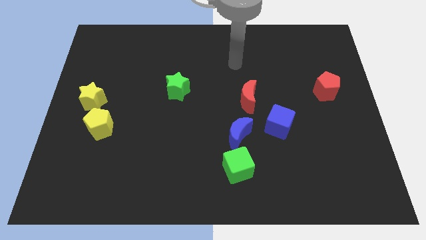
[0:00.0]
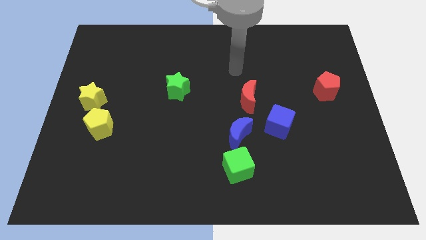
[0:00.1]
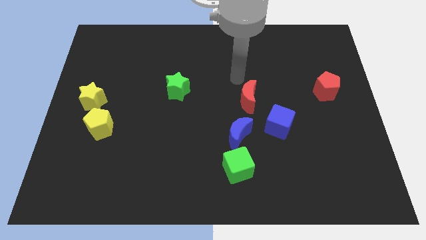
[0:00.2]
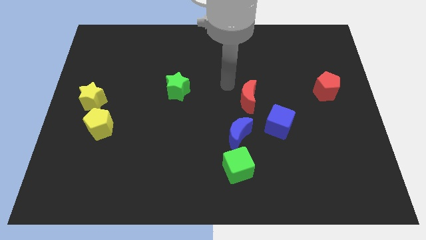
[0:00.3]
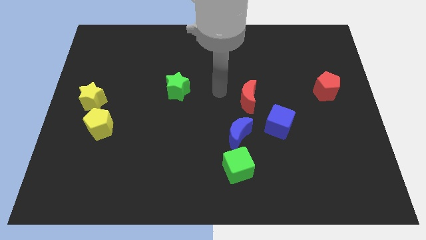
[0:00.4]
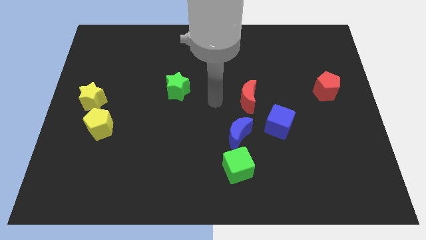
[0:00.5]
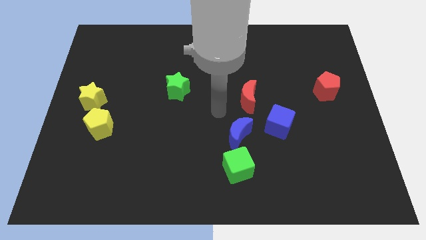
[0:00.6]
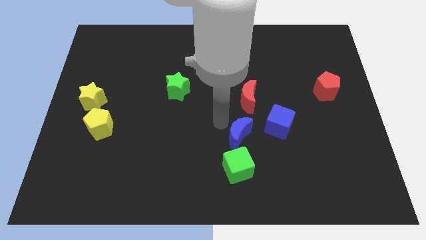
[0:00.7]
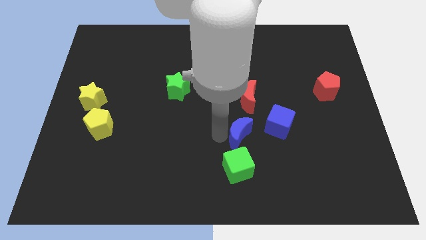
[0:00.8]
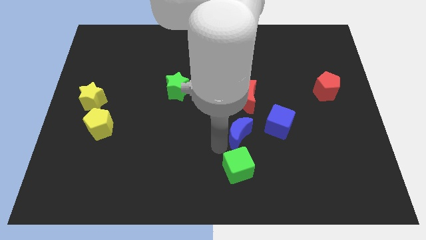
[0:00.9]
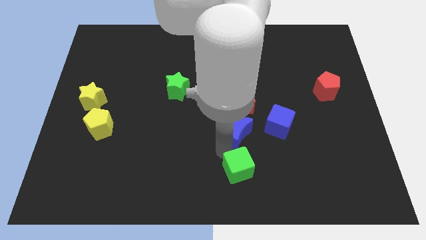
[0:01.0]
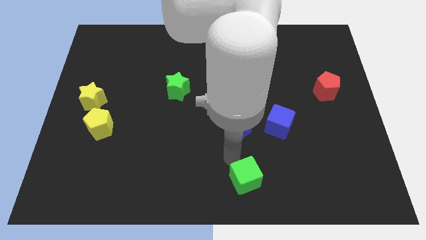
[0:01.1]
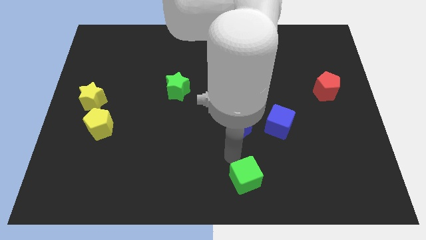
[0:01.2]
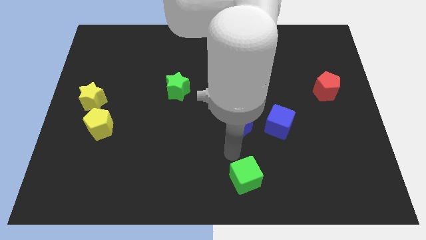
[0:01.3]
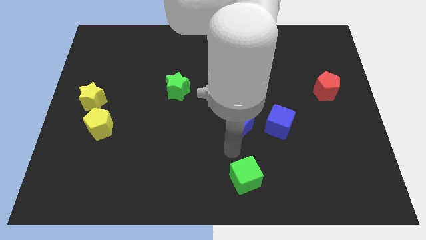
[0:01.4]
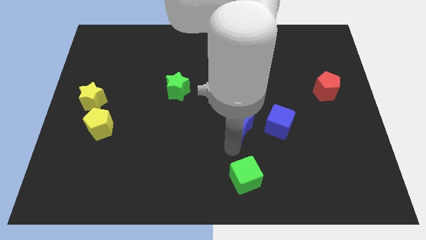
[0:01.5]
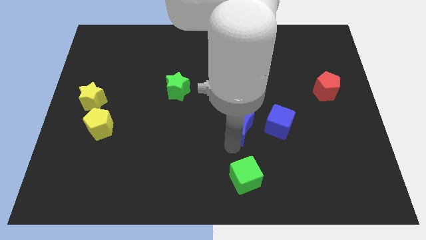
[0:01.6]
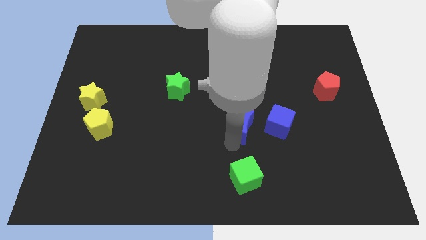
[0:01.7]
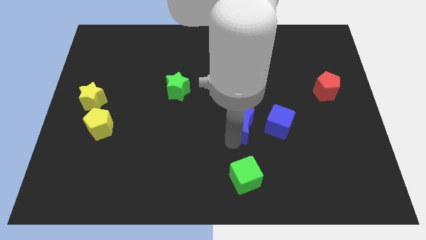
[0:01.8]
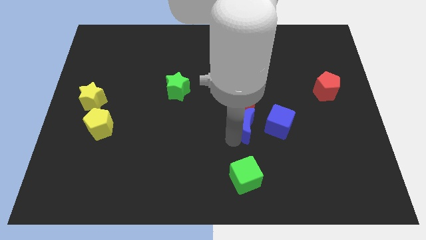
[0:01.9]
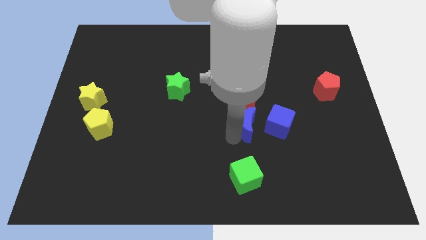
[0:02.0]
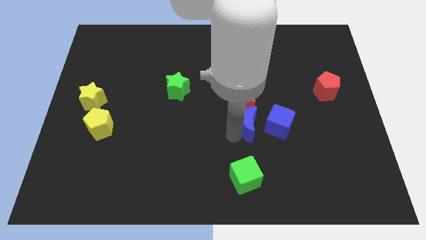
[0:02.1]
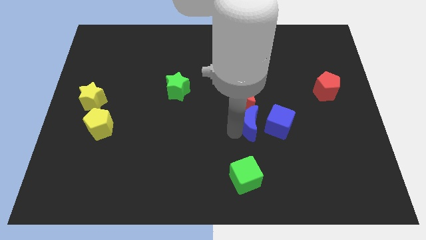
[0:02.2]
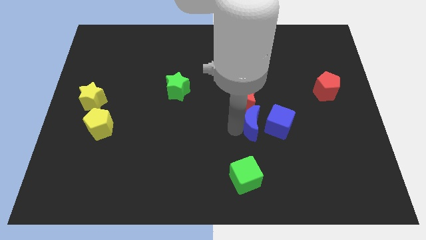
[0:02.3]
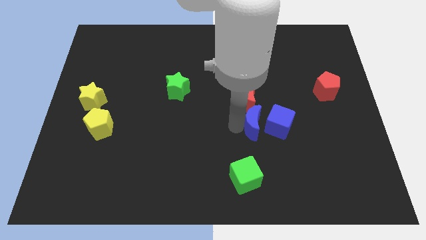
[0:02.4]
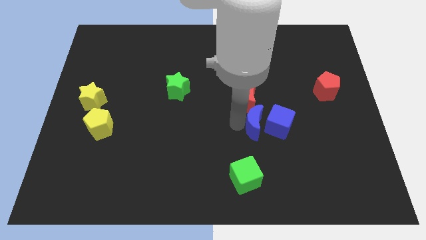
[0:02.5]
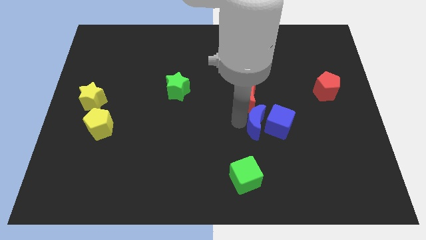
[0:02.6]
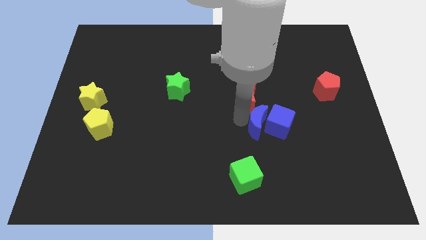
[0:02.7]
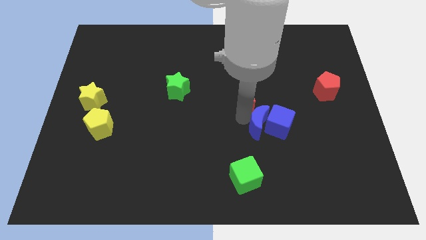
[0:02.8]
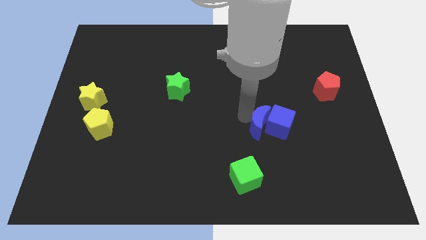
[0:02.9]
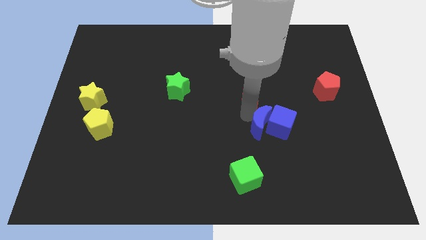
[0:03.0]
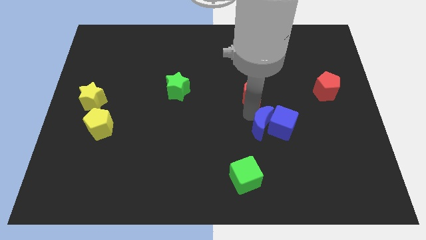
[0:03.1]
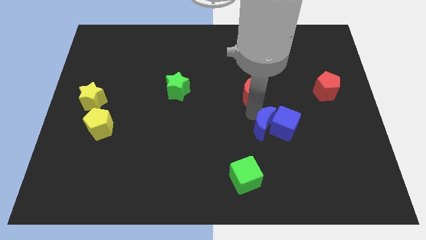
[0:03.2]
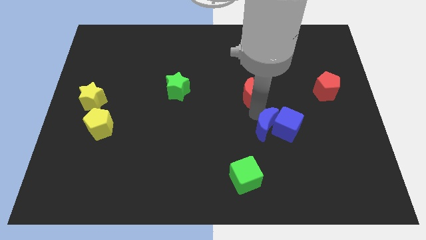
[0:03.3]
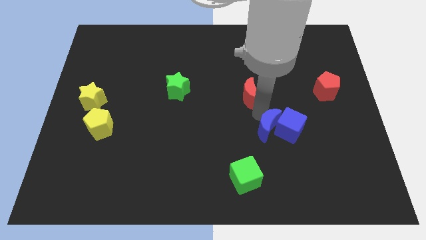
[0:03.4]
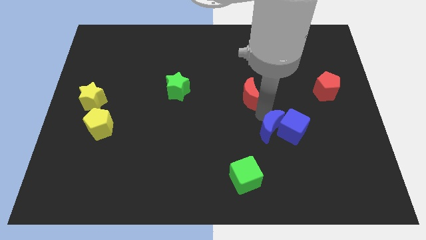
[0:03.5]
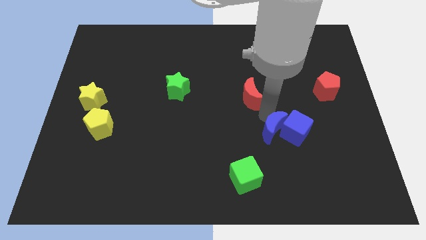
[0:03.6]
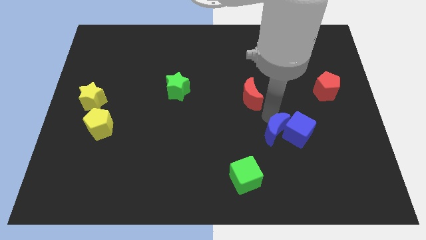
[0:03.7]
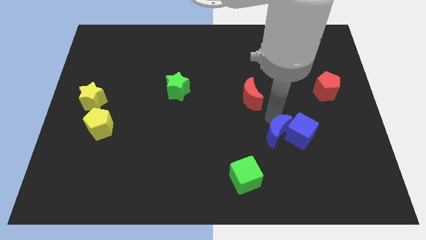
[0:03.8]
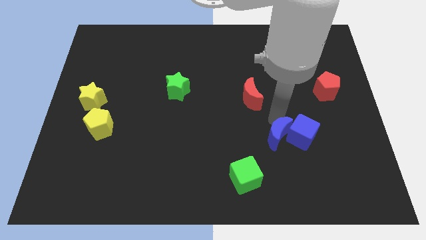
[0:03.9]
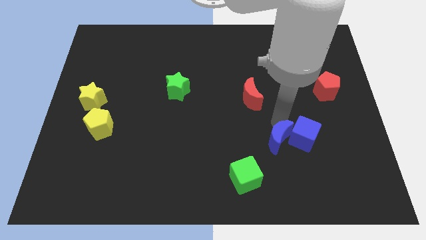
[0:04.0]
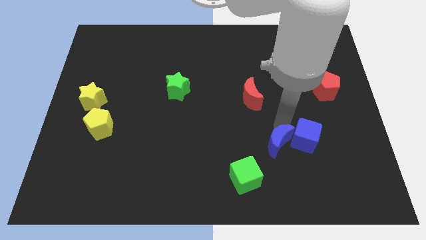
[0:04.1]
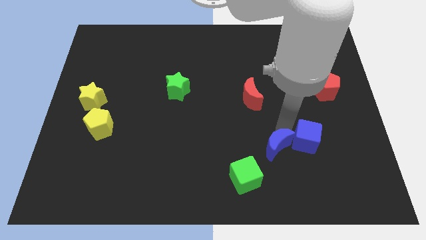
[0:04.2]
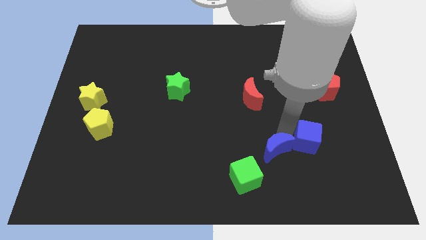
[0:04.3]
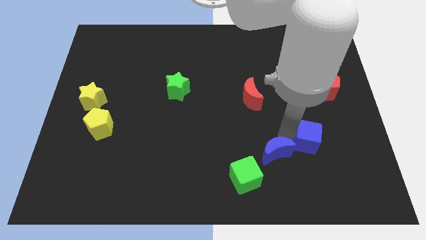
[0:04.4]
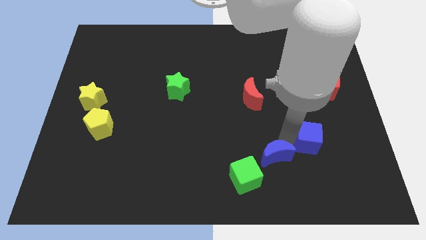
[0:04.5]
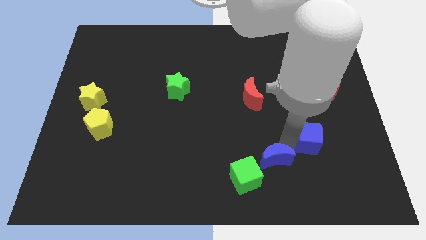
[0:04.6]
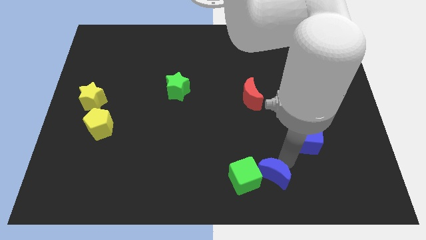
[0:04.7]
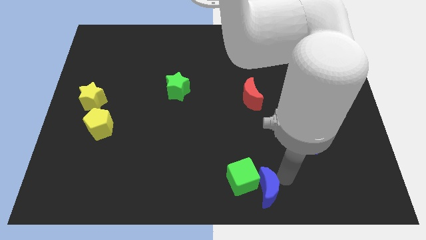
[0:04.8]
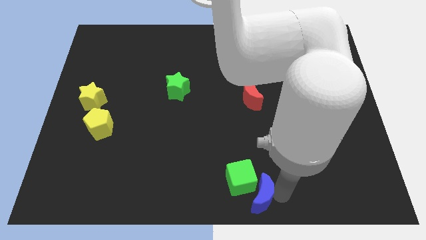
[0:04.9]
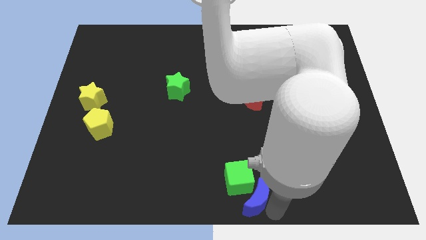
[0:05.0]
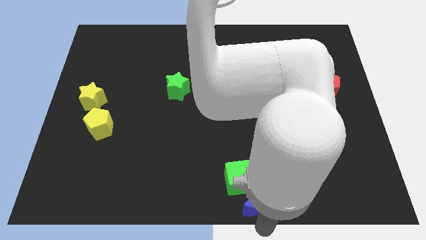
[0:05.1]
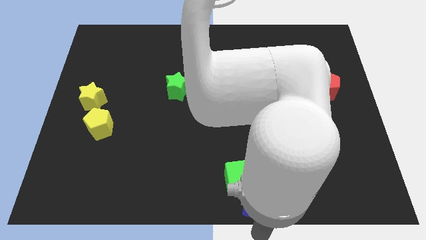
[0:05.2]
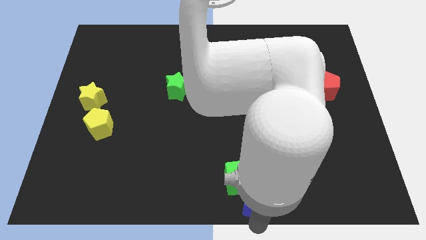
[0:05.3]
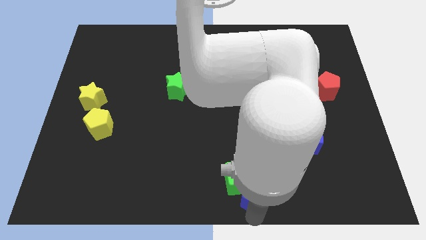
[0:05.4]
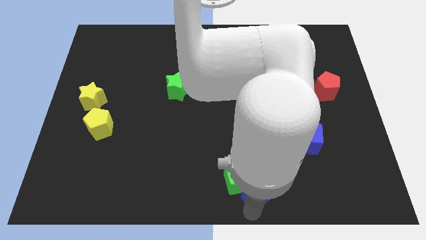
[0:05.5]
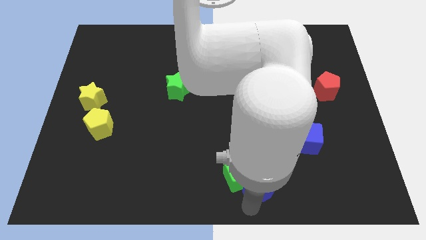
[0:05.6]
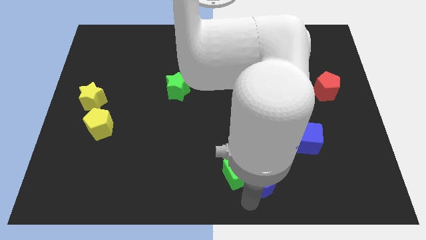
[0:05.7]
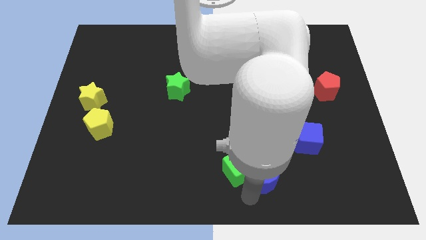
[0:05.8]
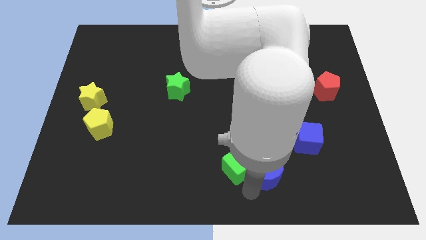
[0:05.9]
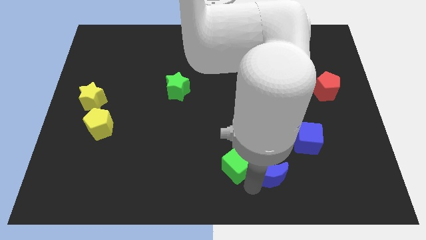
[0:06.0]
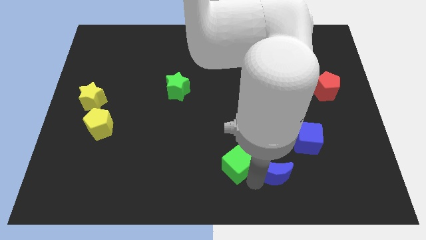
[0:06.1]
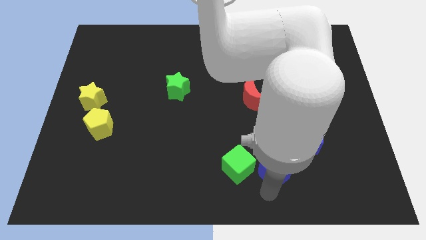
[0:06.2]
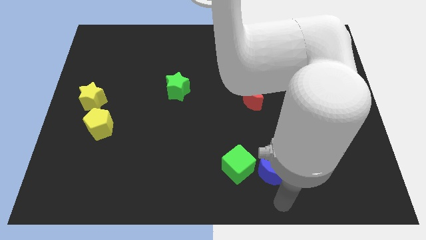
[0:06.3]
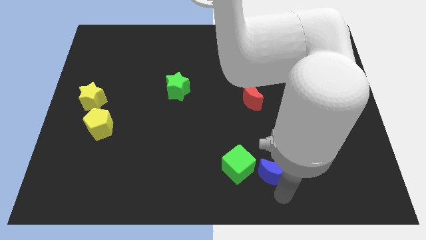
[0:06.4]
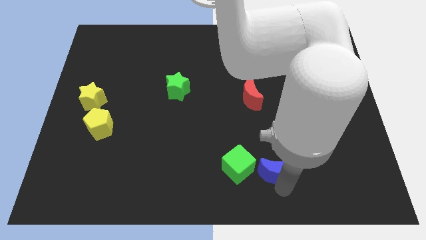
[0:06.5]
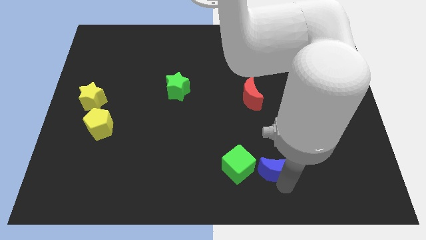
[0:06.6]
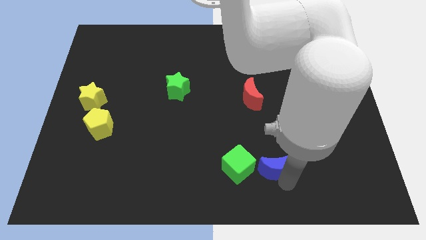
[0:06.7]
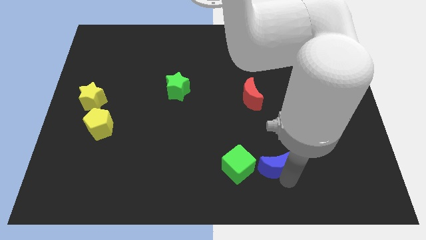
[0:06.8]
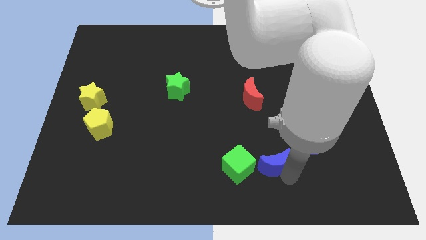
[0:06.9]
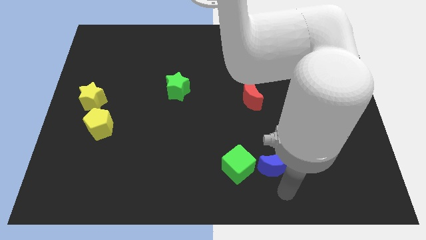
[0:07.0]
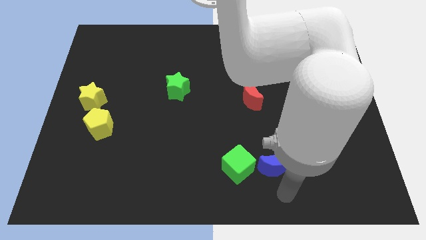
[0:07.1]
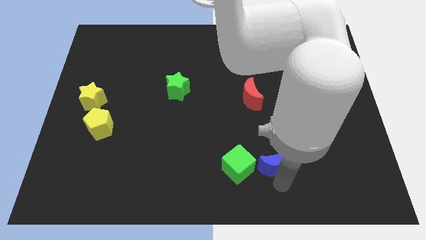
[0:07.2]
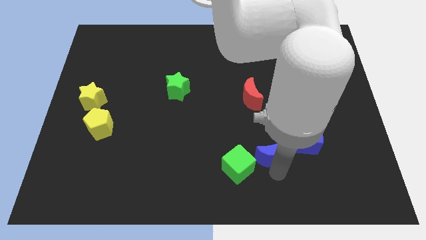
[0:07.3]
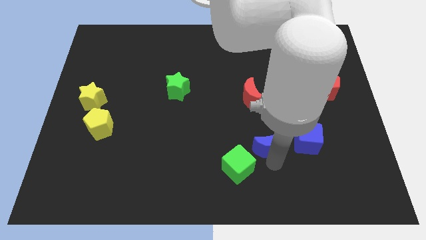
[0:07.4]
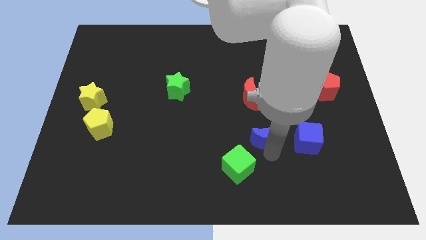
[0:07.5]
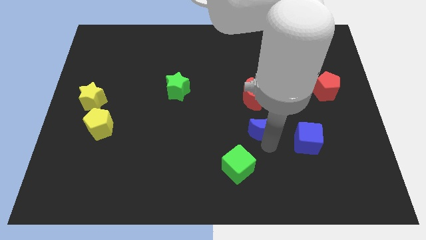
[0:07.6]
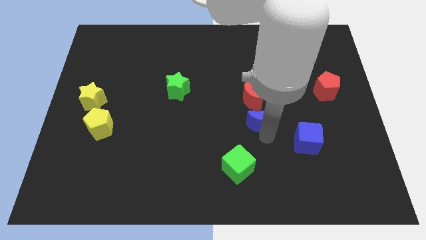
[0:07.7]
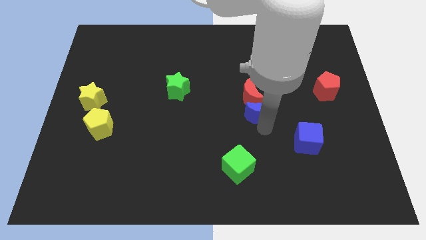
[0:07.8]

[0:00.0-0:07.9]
slide the blue moon towards the red moon
